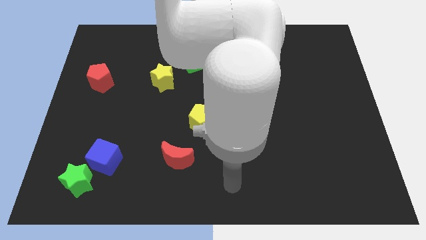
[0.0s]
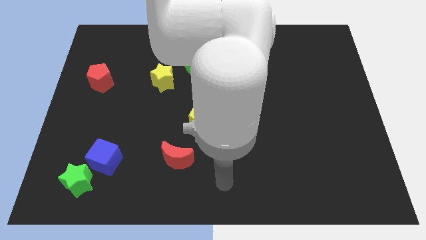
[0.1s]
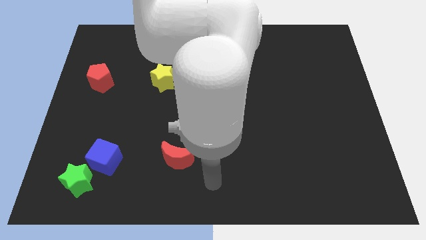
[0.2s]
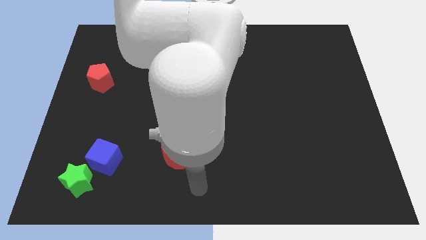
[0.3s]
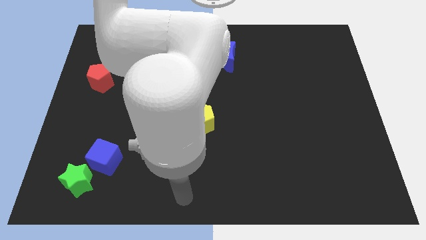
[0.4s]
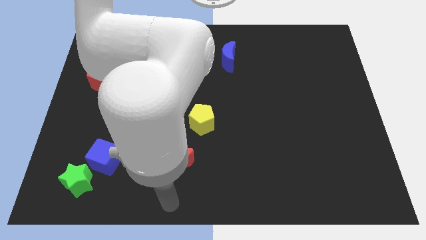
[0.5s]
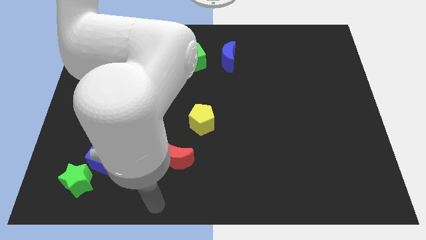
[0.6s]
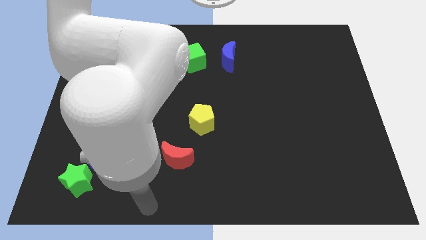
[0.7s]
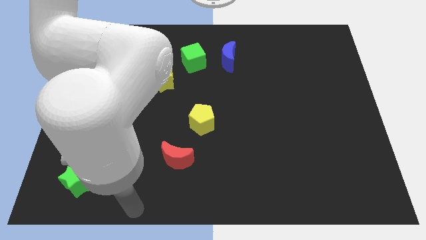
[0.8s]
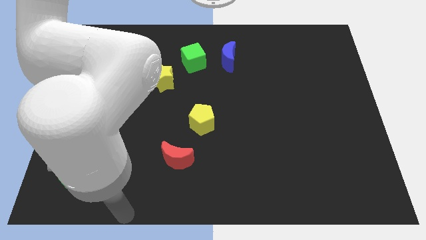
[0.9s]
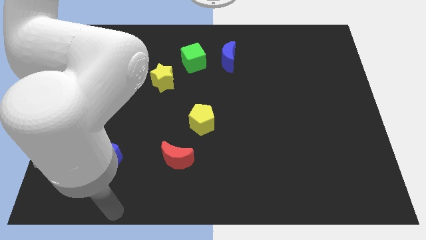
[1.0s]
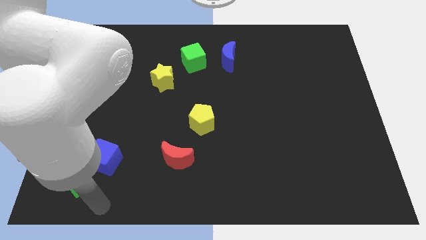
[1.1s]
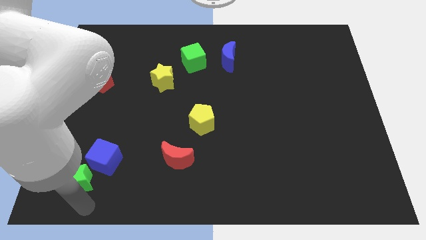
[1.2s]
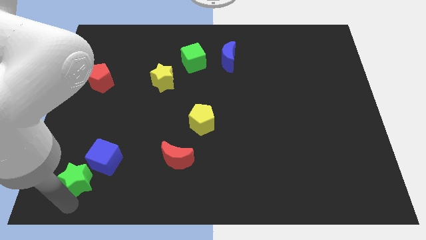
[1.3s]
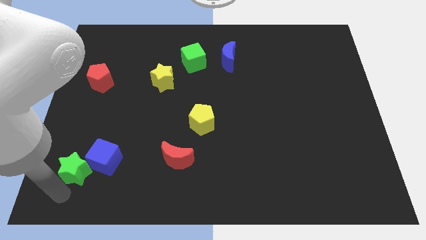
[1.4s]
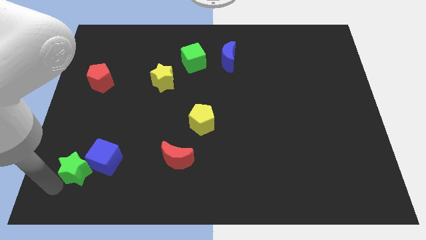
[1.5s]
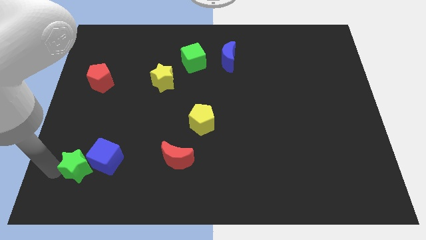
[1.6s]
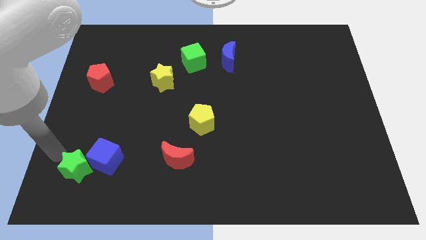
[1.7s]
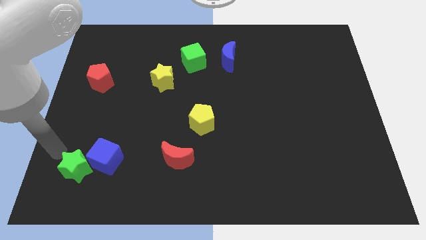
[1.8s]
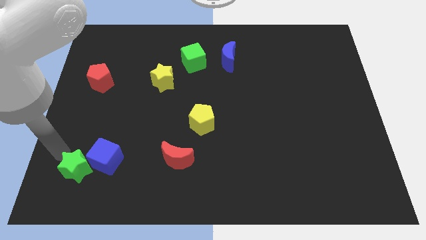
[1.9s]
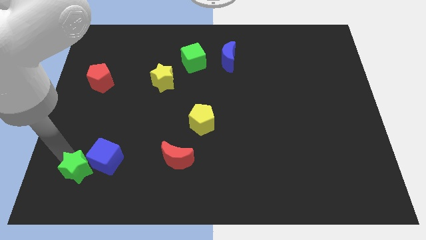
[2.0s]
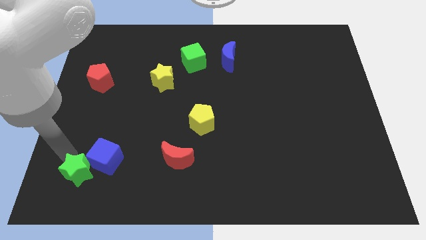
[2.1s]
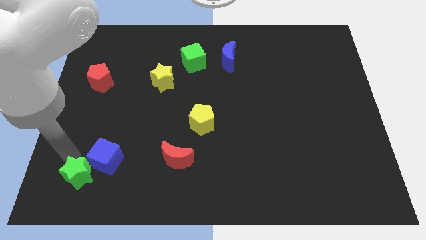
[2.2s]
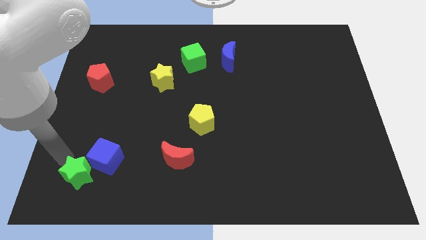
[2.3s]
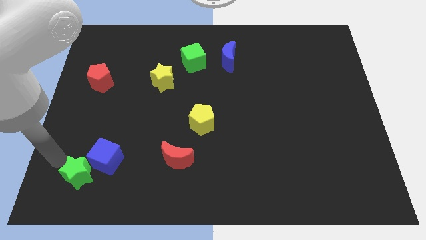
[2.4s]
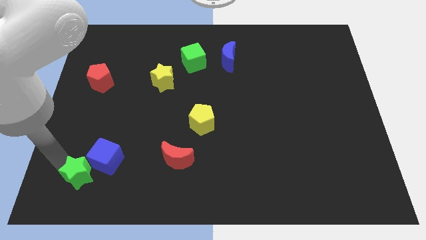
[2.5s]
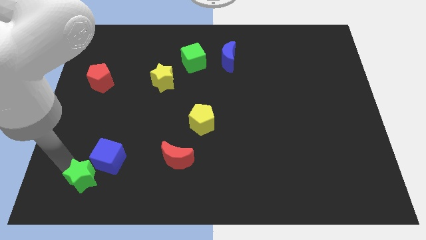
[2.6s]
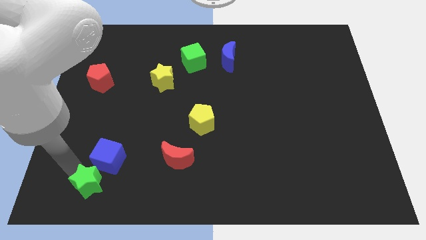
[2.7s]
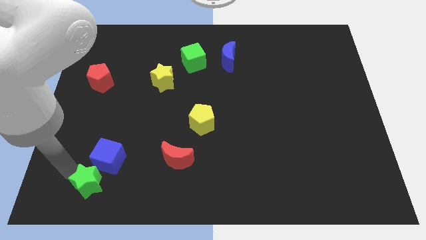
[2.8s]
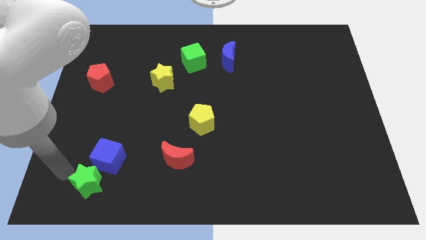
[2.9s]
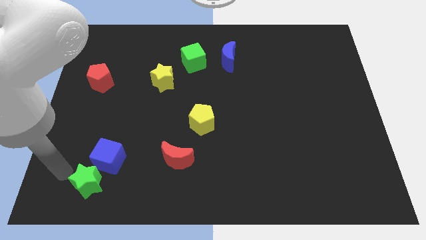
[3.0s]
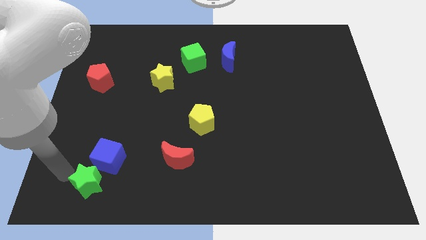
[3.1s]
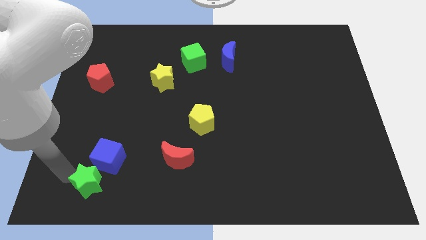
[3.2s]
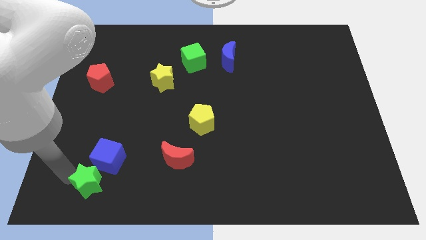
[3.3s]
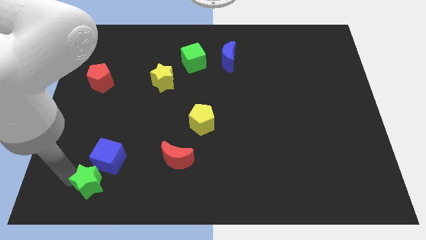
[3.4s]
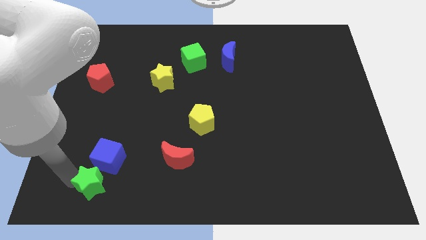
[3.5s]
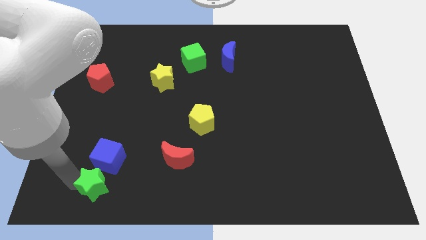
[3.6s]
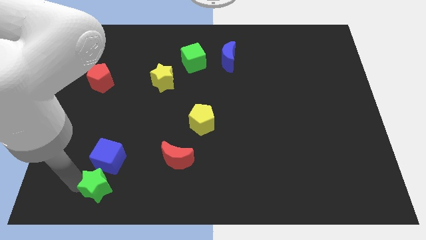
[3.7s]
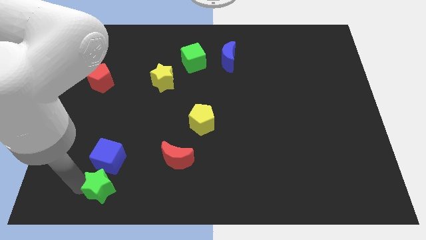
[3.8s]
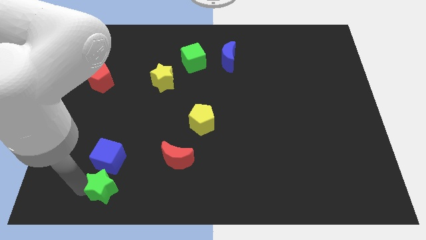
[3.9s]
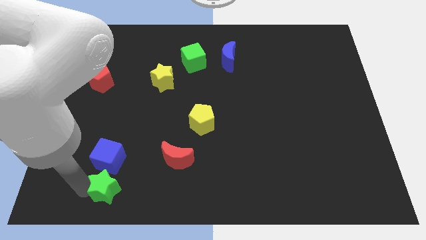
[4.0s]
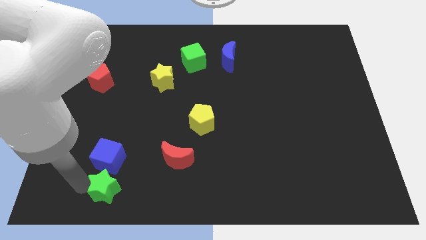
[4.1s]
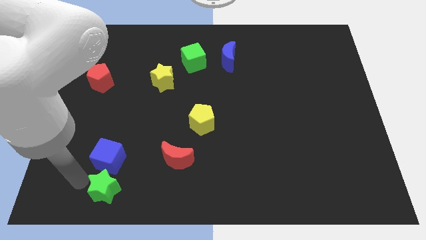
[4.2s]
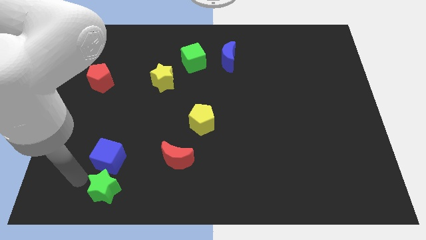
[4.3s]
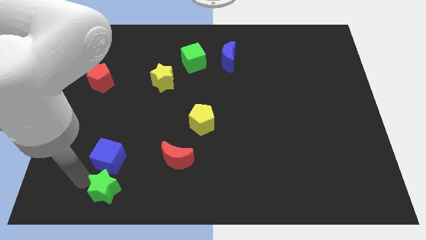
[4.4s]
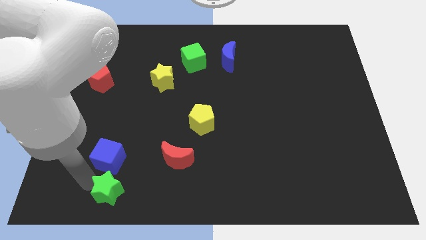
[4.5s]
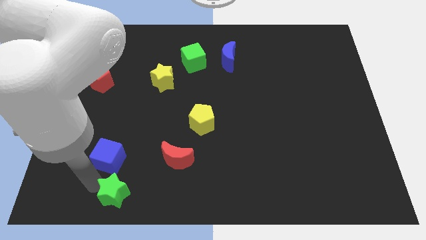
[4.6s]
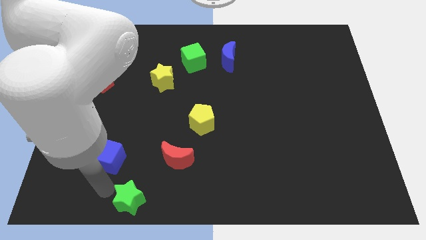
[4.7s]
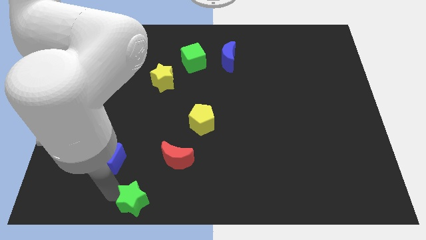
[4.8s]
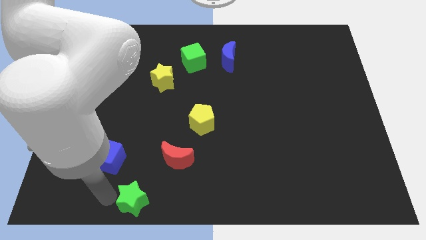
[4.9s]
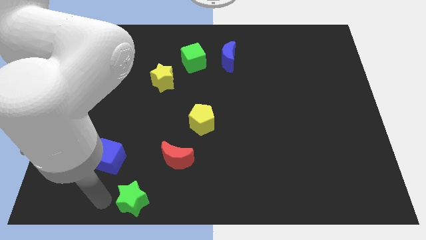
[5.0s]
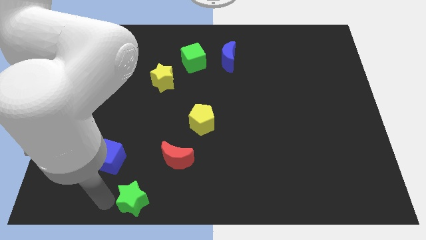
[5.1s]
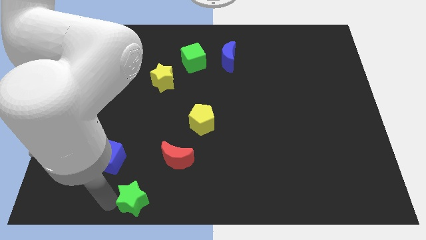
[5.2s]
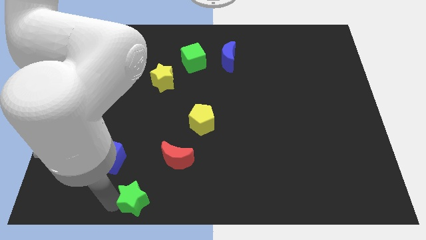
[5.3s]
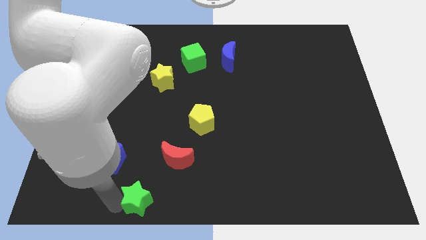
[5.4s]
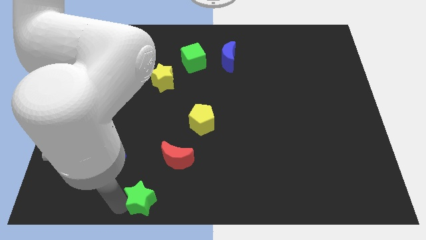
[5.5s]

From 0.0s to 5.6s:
slide the green star to the bottom side

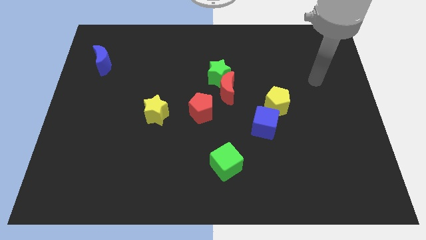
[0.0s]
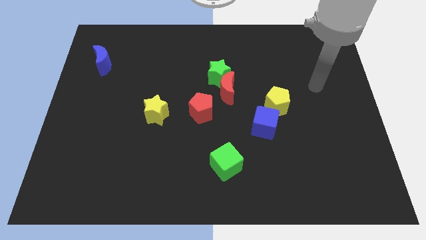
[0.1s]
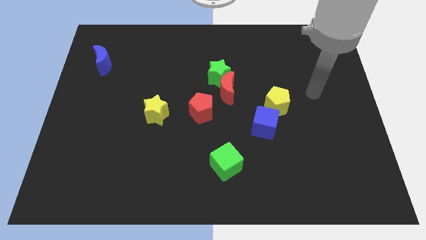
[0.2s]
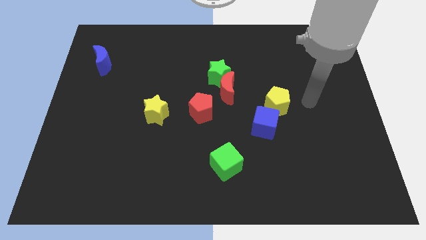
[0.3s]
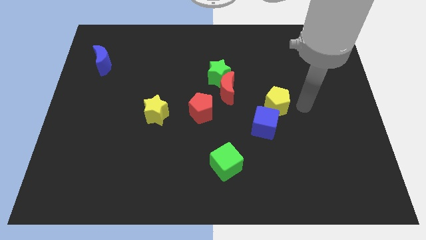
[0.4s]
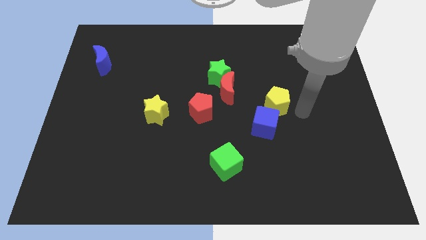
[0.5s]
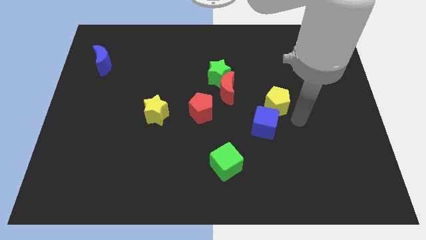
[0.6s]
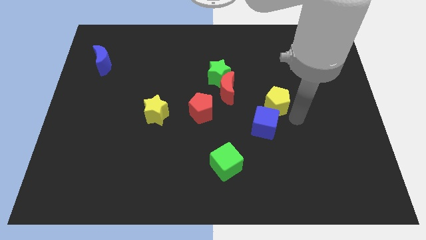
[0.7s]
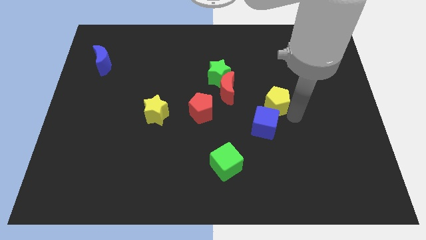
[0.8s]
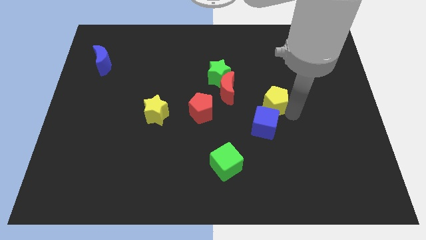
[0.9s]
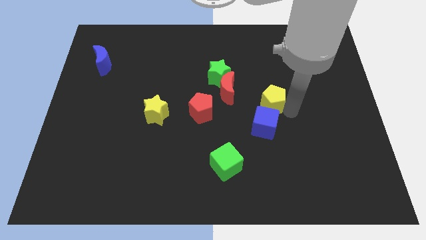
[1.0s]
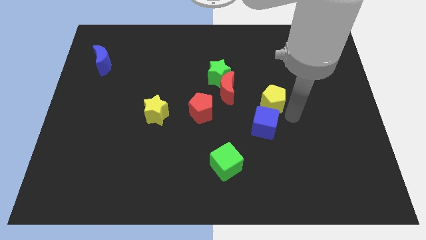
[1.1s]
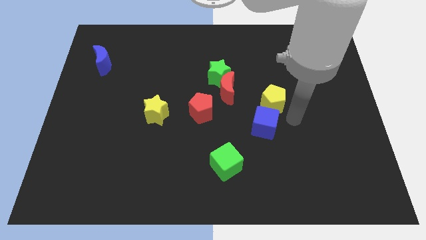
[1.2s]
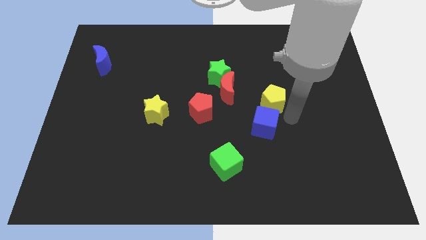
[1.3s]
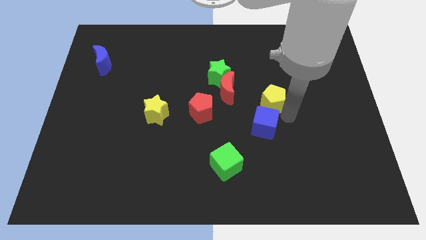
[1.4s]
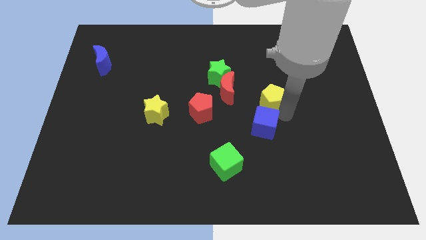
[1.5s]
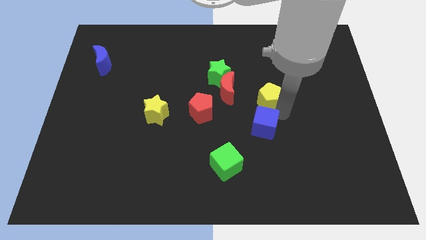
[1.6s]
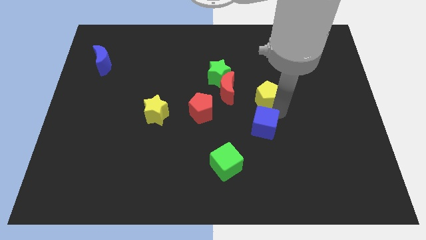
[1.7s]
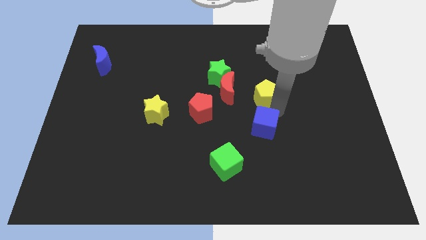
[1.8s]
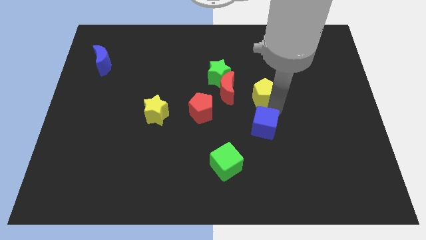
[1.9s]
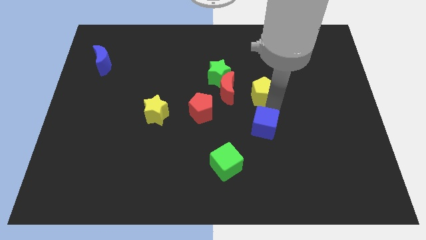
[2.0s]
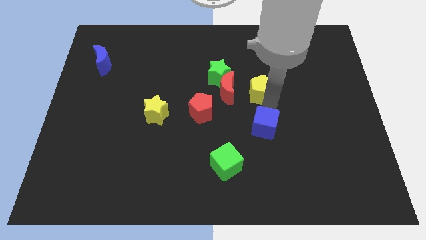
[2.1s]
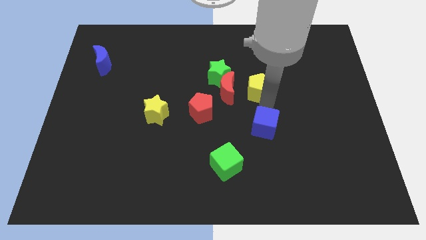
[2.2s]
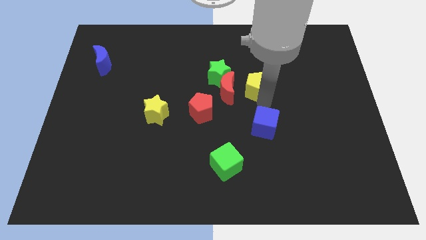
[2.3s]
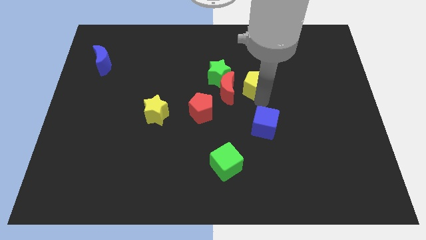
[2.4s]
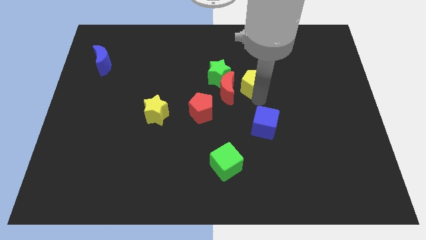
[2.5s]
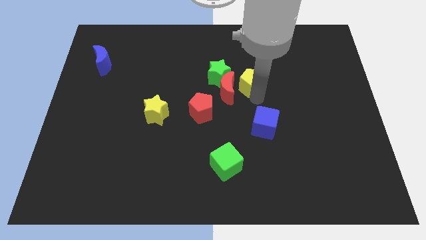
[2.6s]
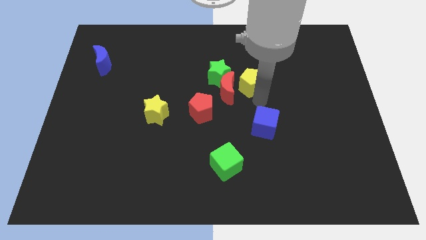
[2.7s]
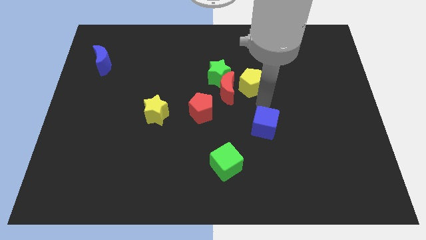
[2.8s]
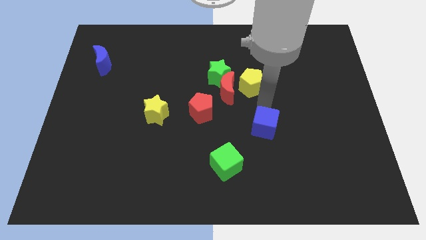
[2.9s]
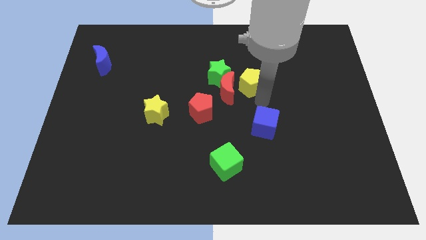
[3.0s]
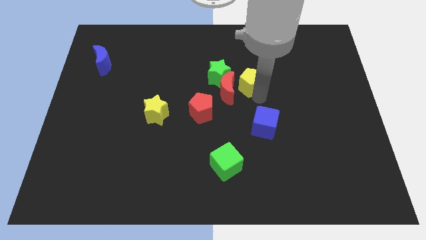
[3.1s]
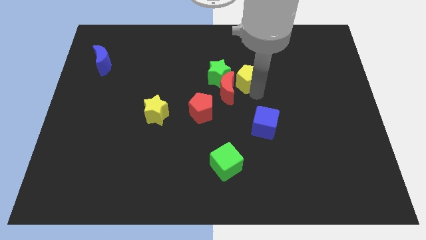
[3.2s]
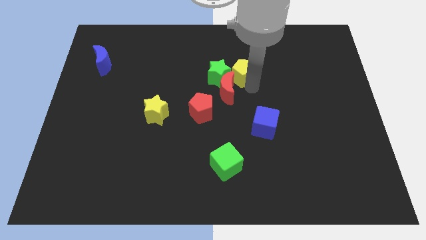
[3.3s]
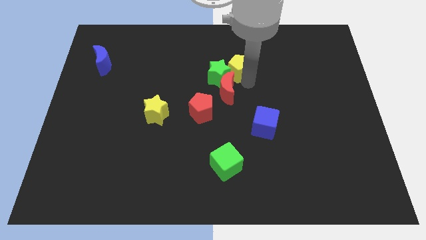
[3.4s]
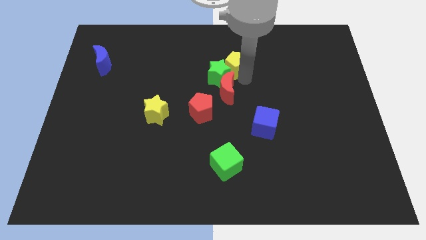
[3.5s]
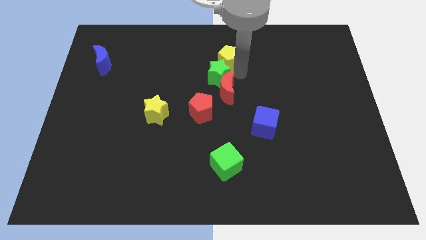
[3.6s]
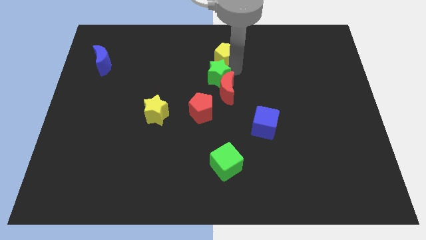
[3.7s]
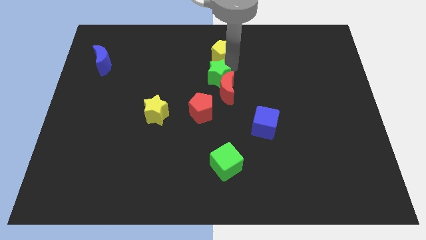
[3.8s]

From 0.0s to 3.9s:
push the yellow pentagon to the top
